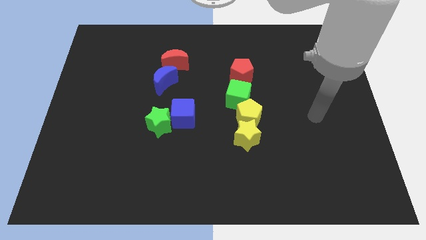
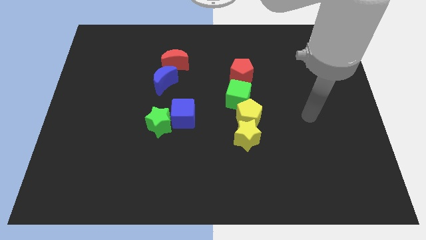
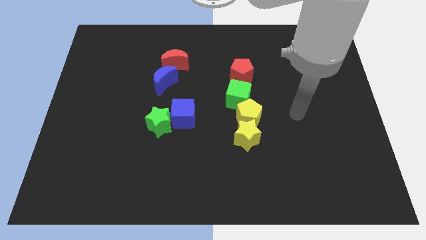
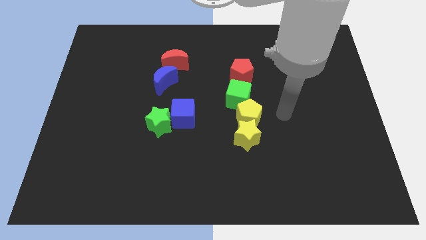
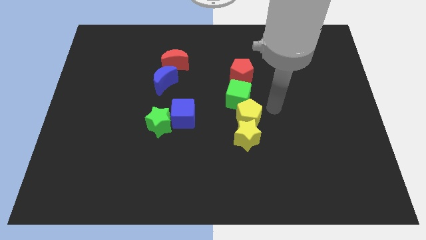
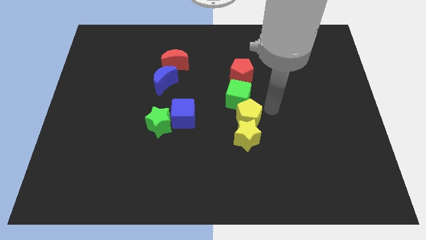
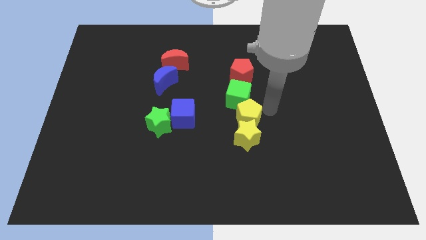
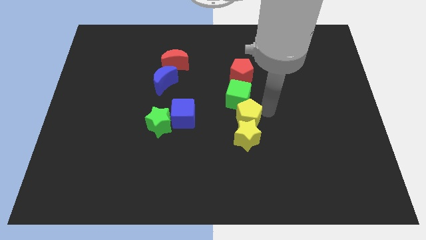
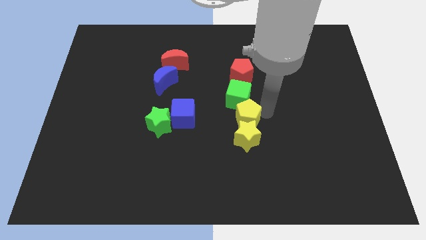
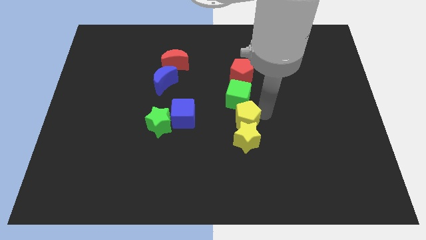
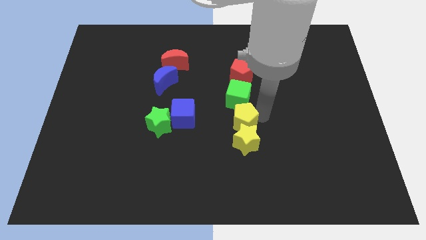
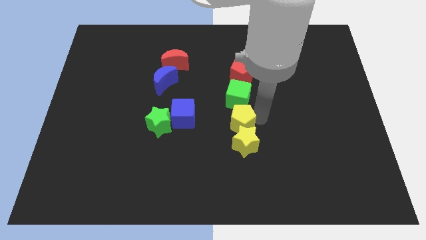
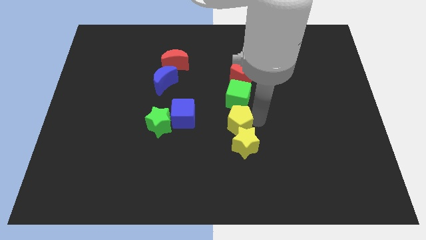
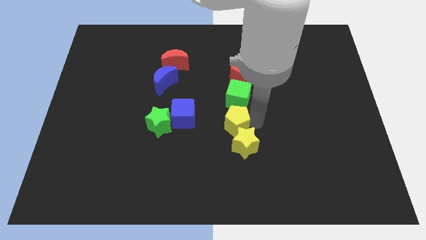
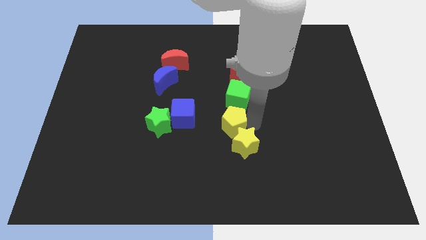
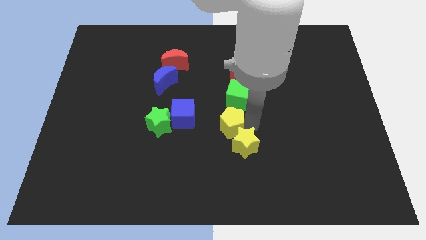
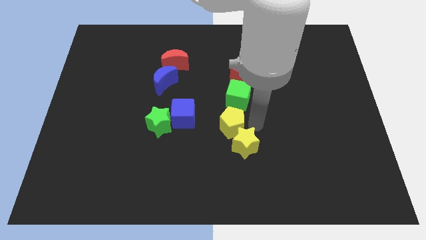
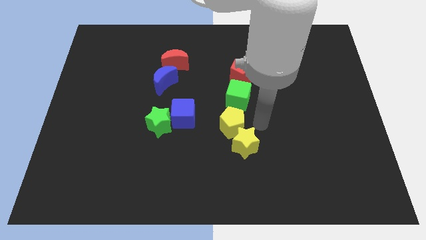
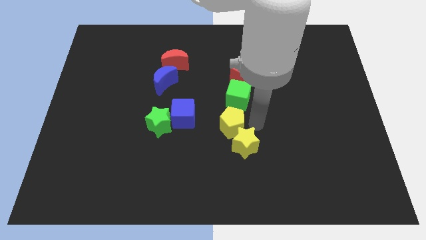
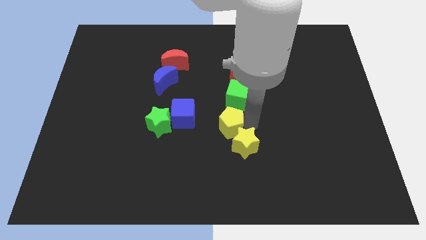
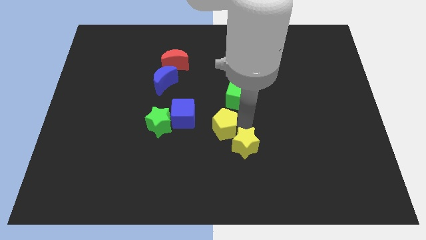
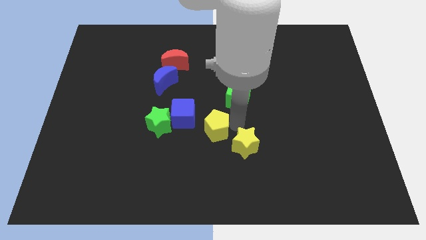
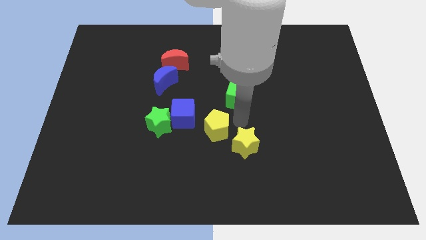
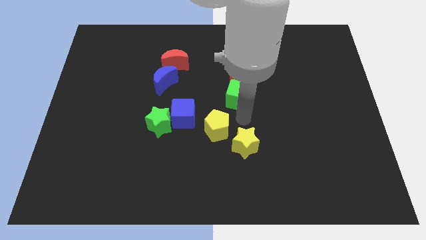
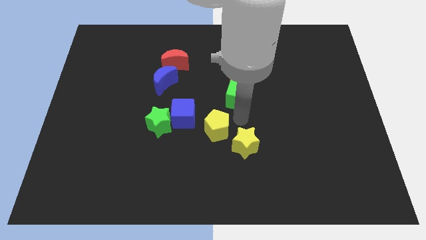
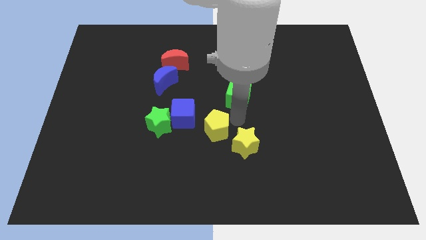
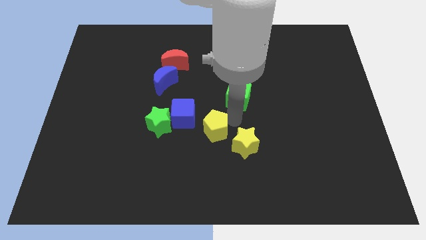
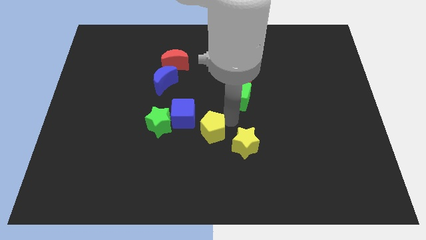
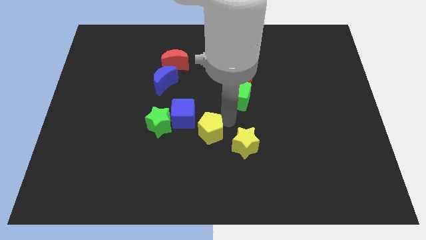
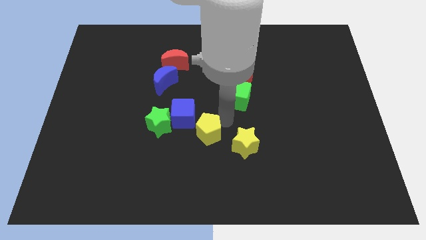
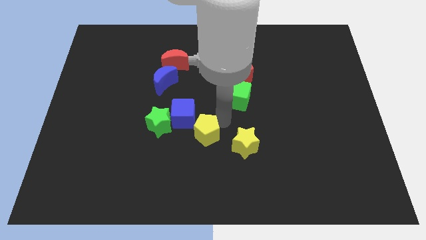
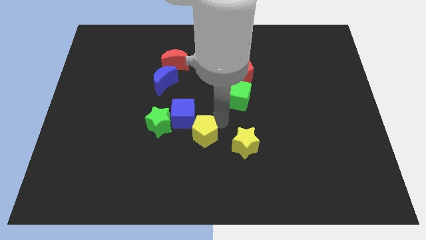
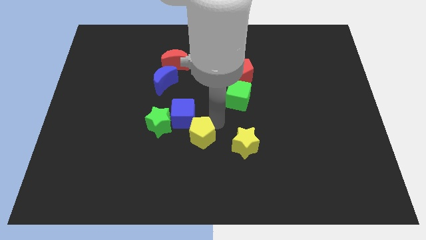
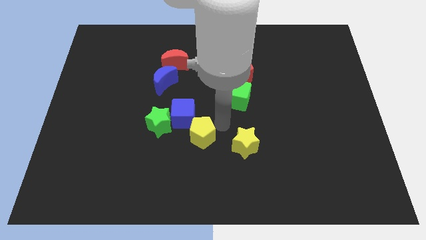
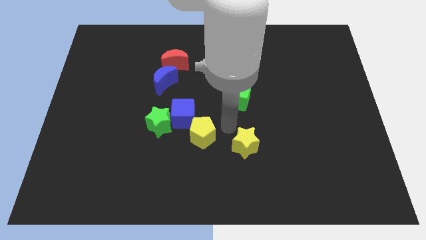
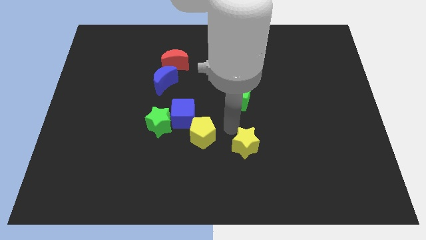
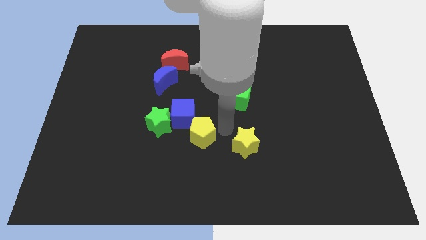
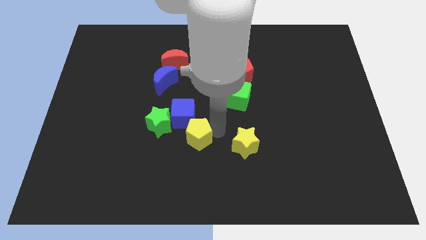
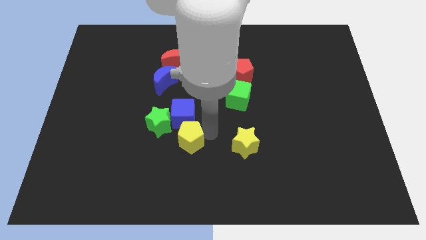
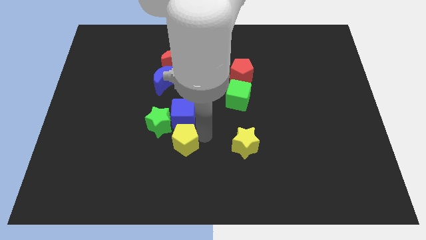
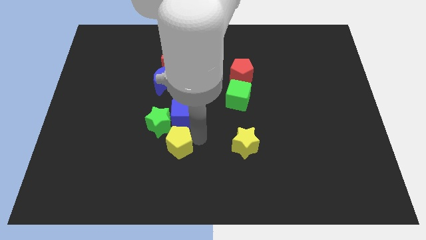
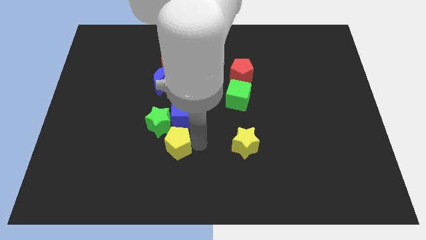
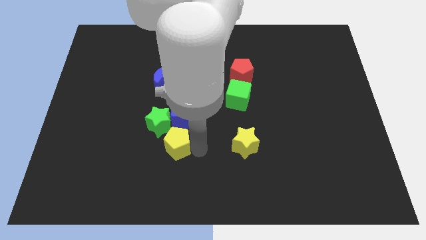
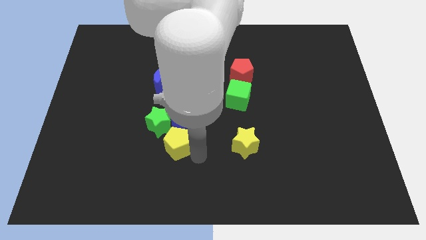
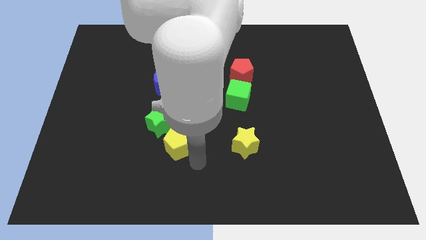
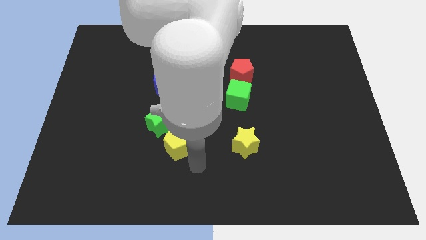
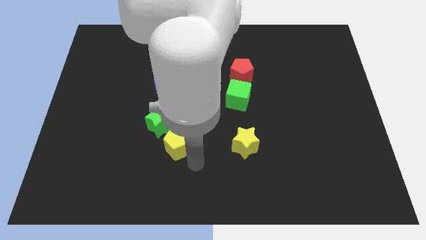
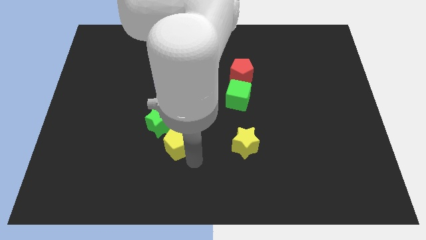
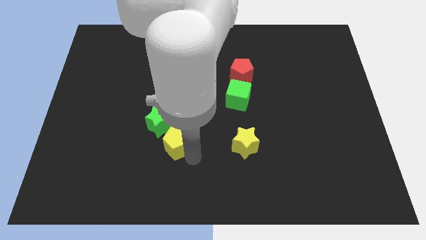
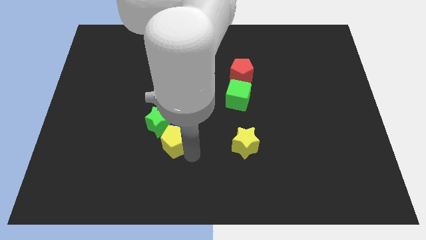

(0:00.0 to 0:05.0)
push the yellow pentagon towards the green star

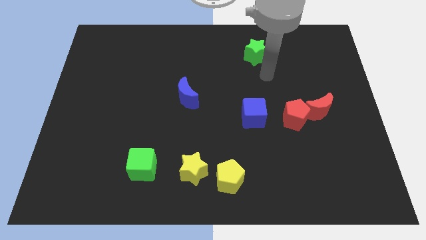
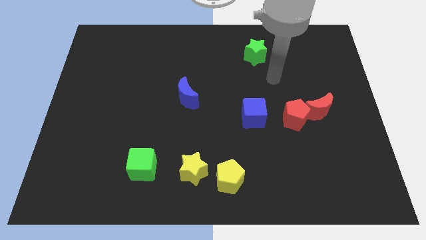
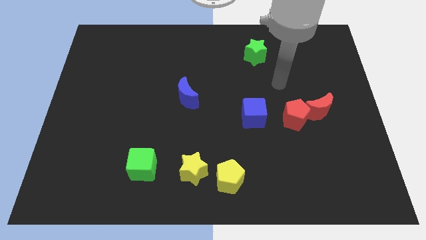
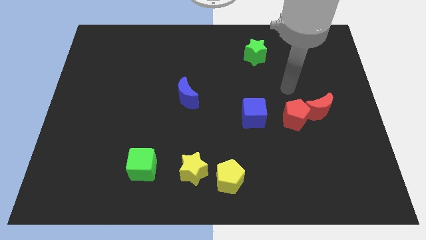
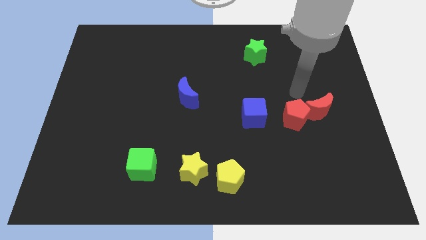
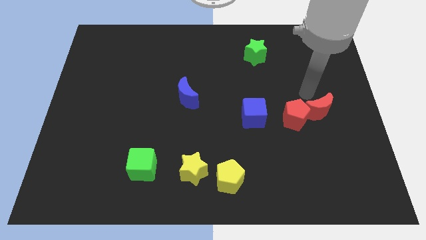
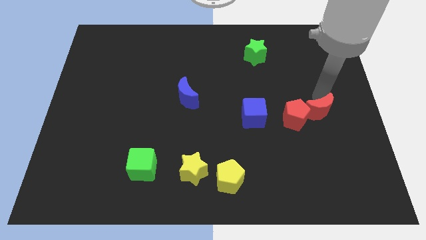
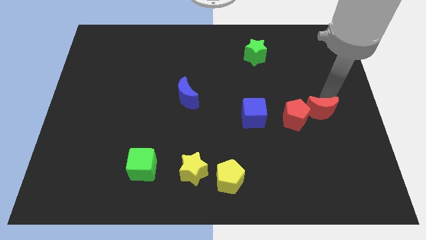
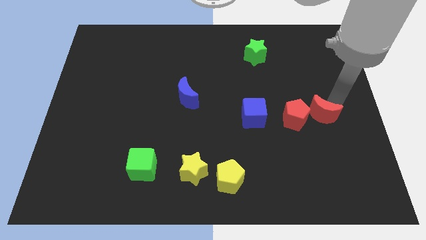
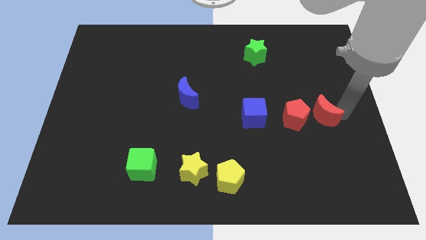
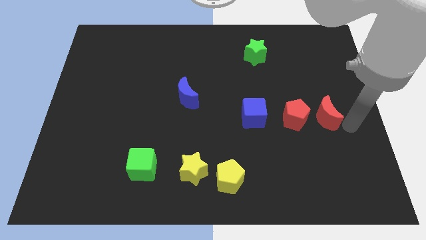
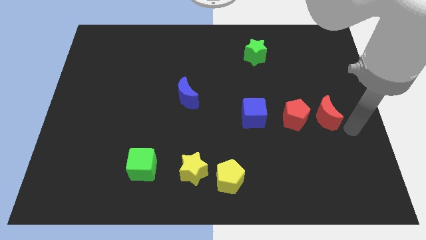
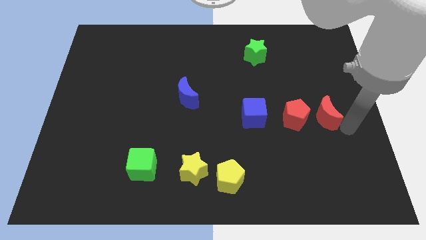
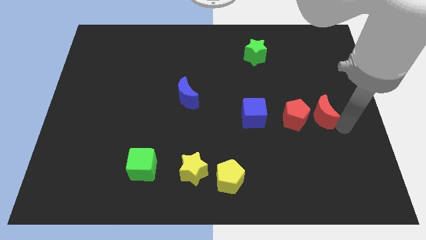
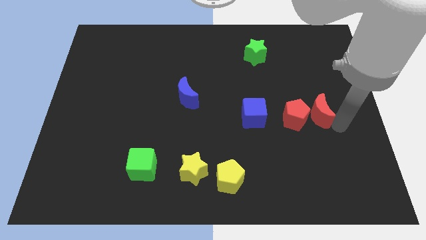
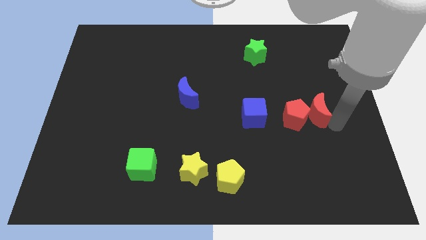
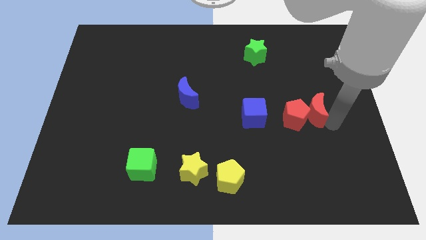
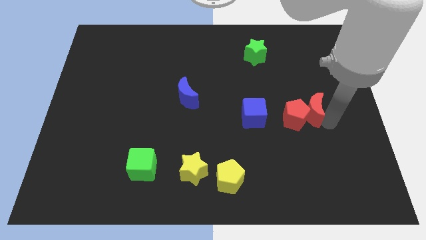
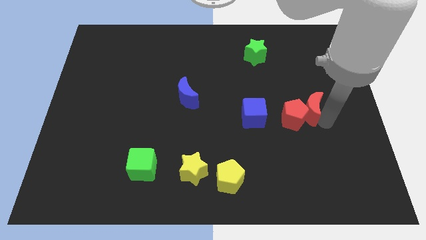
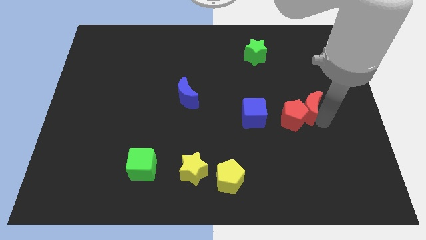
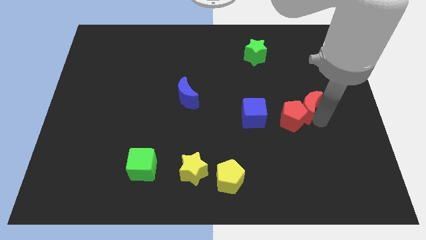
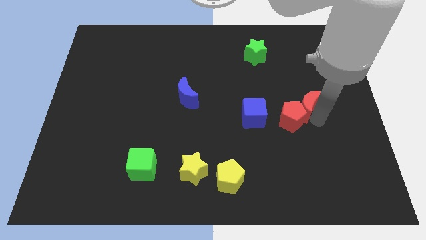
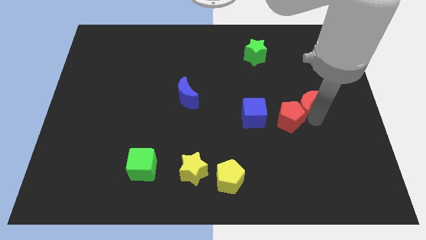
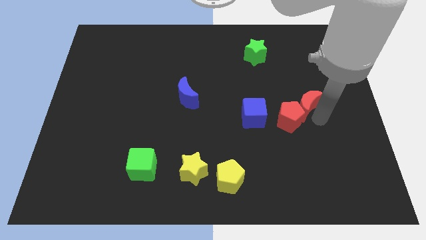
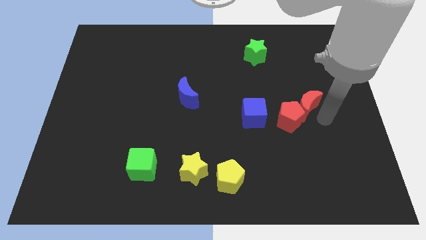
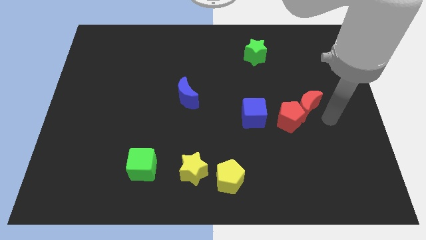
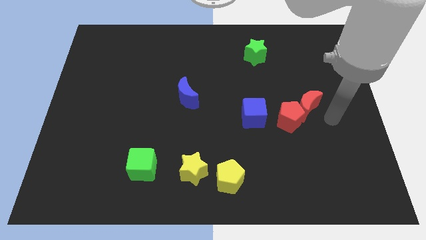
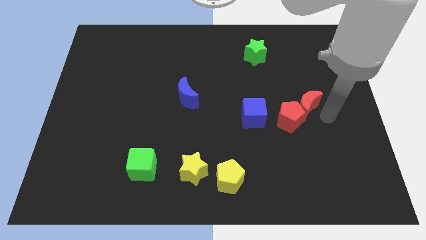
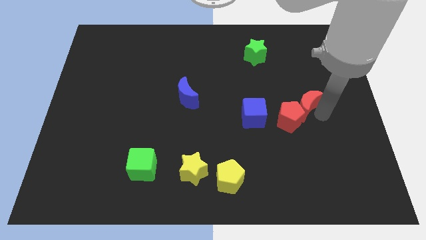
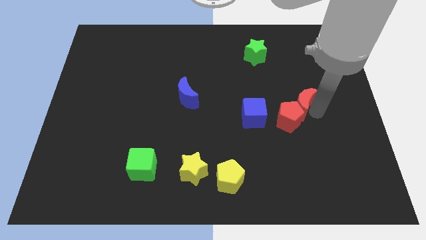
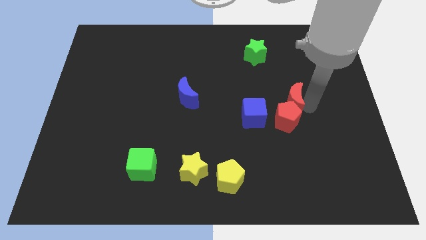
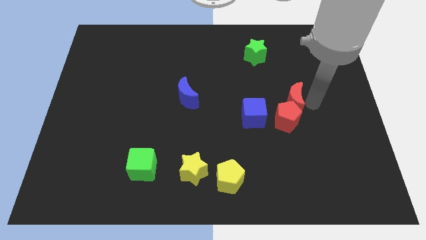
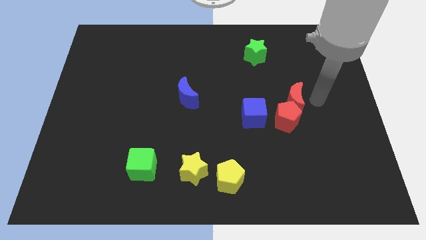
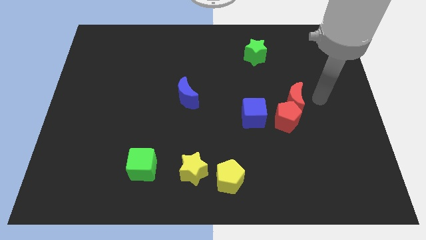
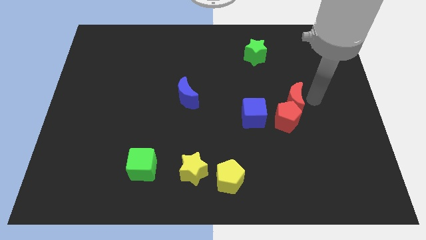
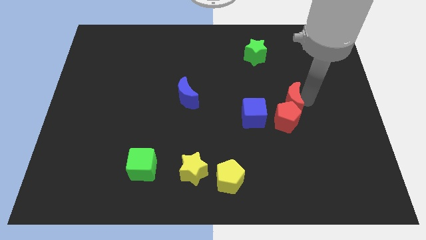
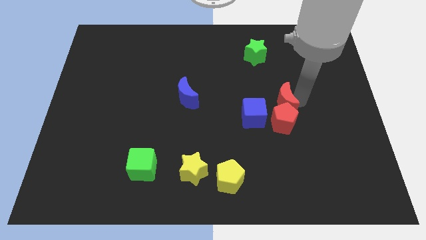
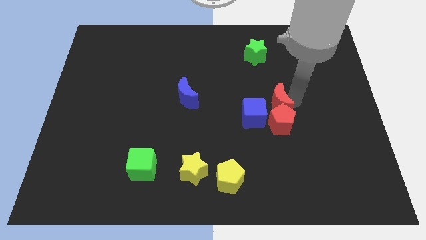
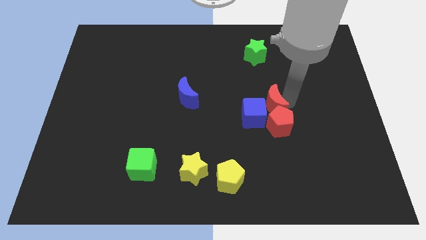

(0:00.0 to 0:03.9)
push the red moon next to the blue cube
